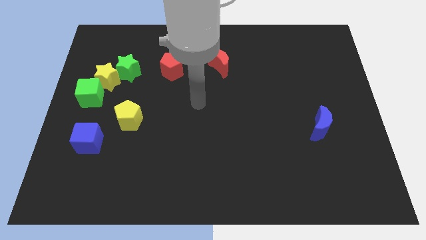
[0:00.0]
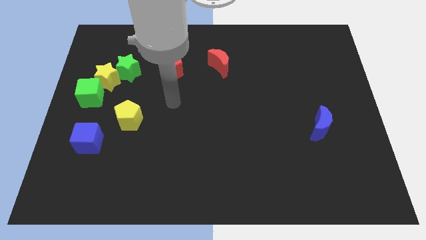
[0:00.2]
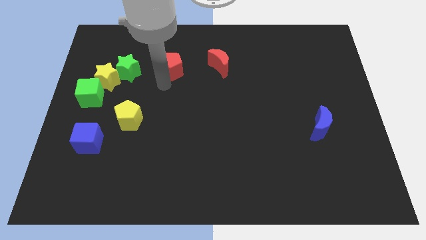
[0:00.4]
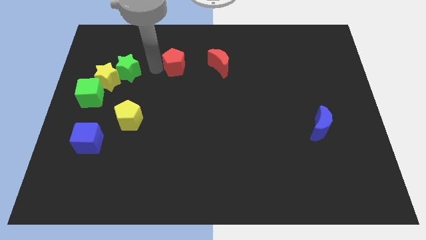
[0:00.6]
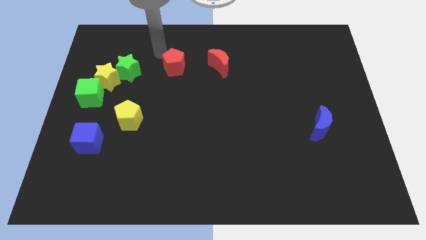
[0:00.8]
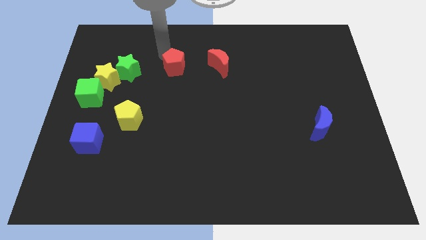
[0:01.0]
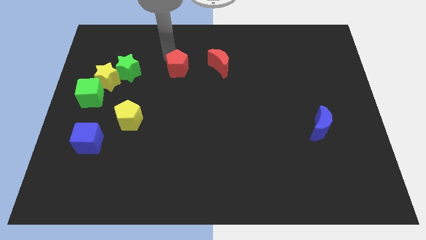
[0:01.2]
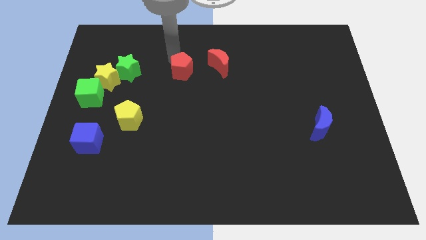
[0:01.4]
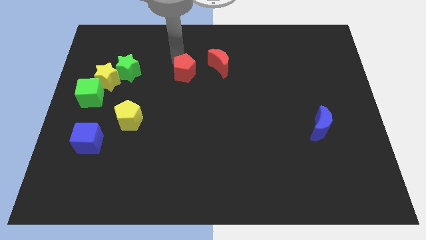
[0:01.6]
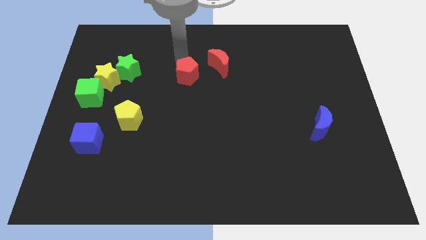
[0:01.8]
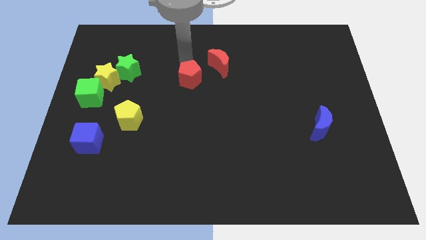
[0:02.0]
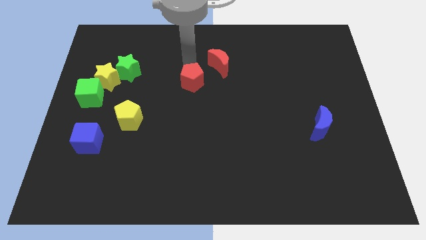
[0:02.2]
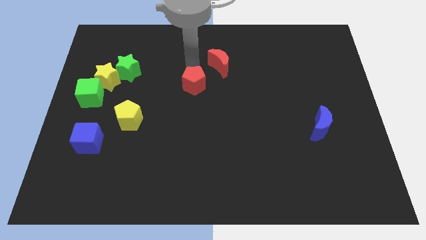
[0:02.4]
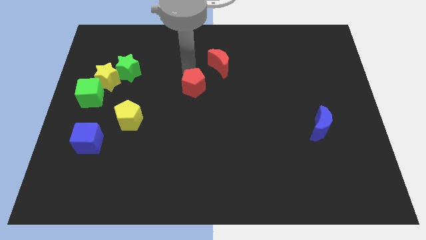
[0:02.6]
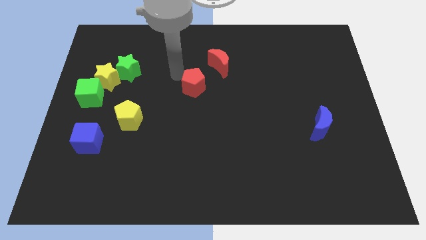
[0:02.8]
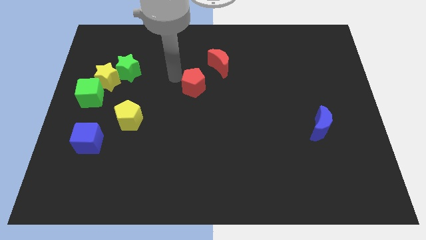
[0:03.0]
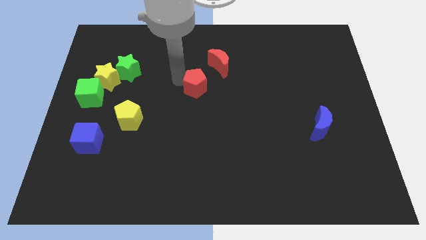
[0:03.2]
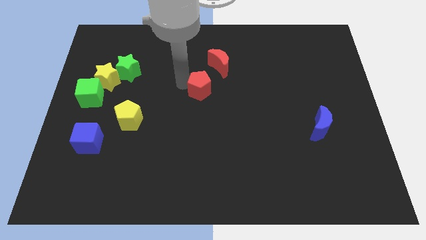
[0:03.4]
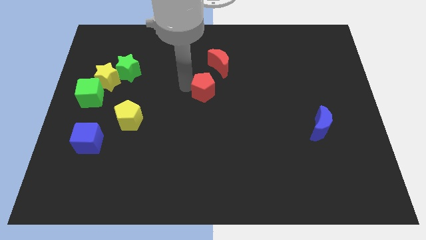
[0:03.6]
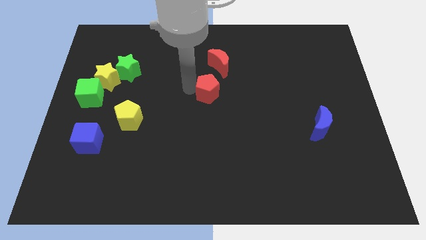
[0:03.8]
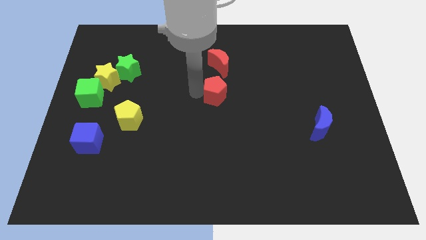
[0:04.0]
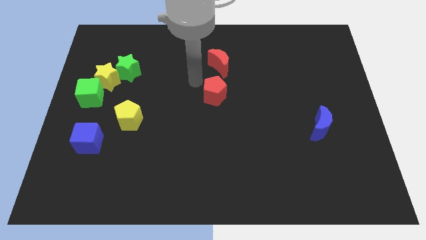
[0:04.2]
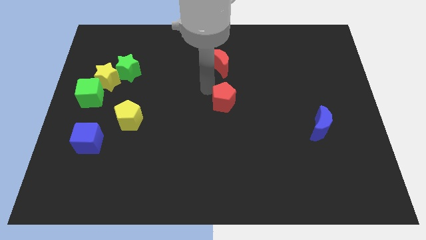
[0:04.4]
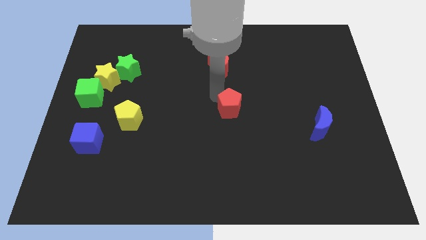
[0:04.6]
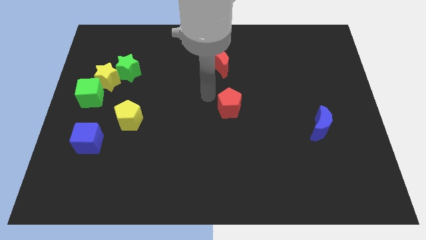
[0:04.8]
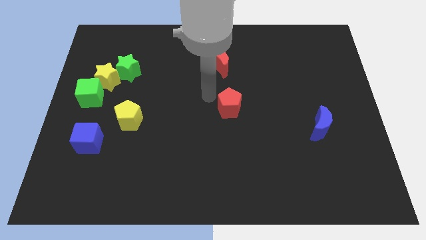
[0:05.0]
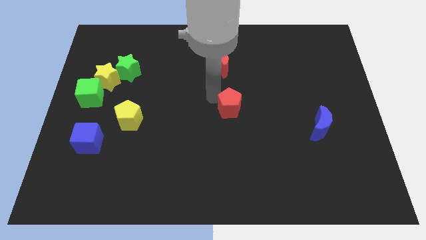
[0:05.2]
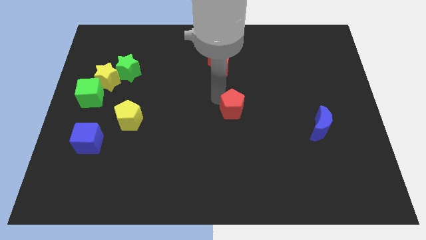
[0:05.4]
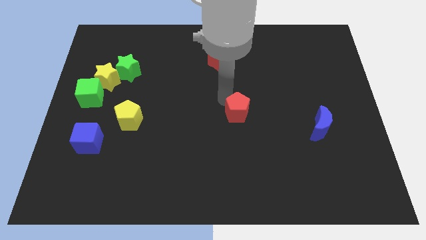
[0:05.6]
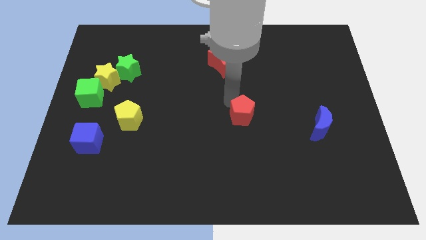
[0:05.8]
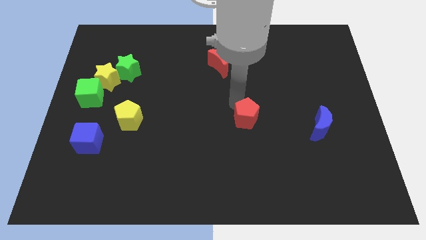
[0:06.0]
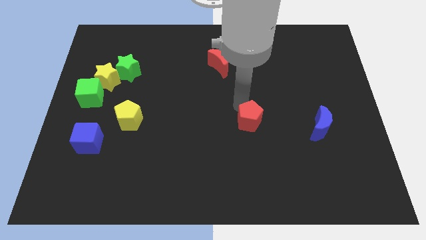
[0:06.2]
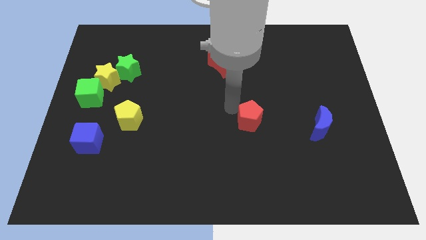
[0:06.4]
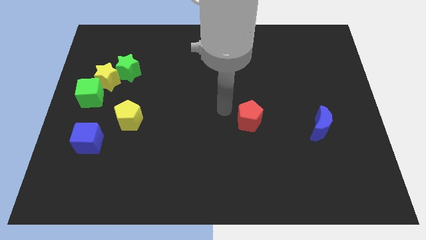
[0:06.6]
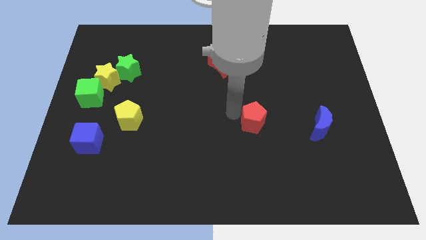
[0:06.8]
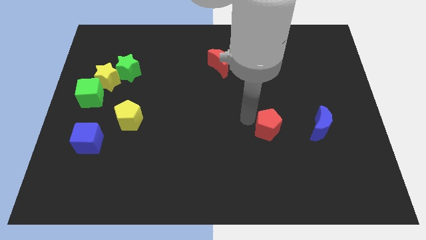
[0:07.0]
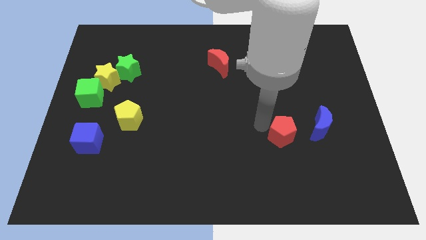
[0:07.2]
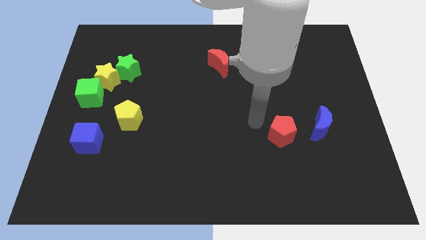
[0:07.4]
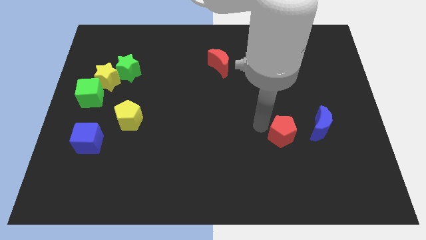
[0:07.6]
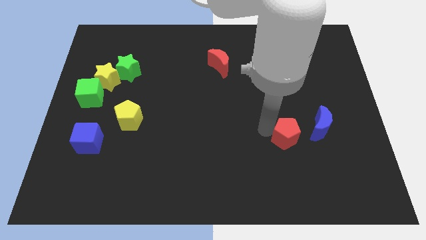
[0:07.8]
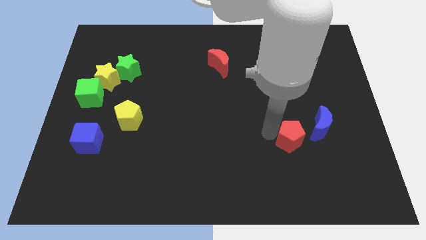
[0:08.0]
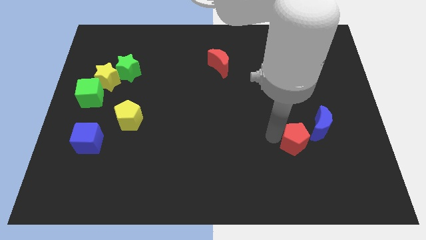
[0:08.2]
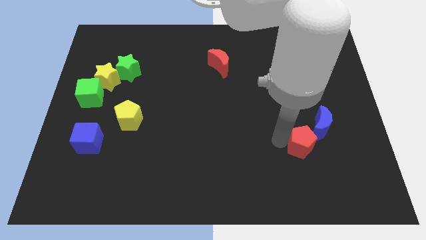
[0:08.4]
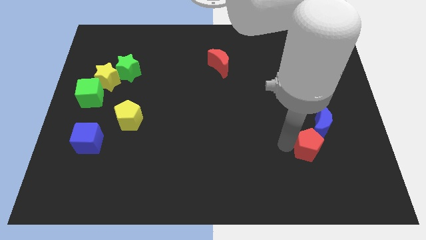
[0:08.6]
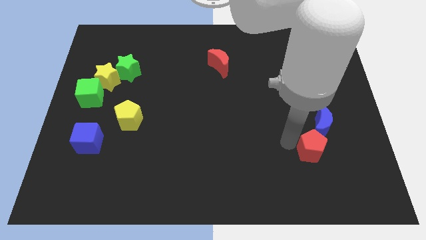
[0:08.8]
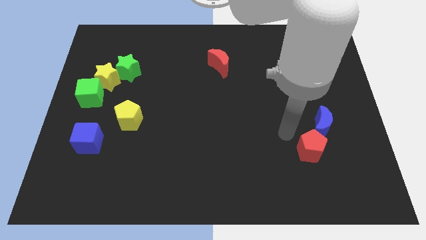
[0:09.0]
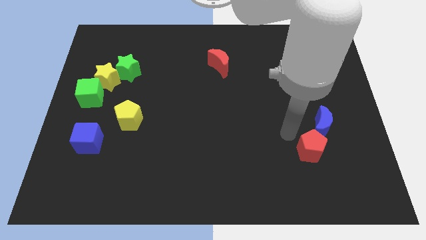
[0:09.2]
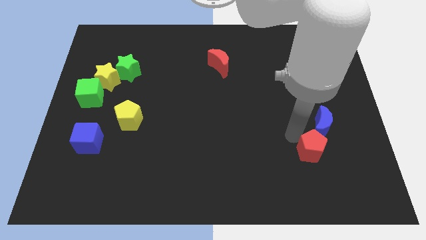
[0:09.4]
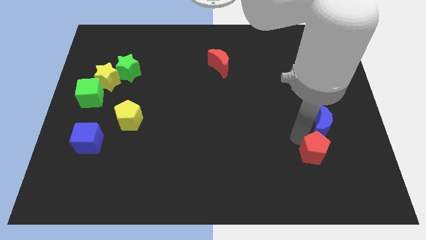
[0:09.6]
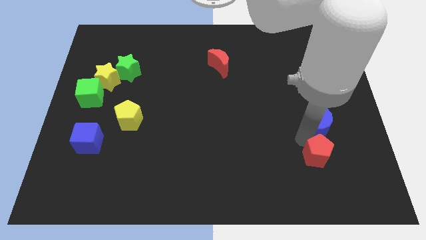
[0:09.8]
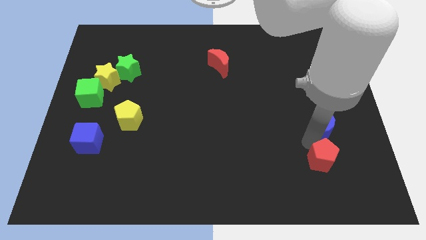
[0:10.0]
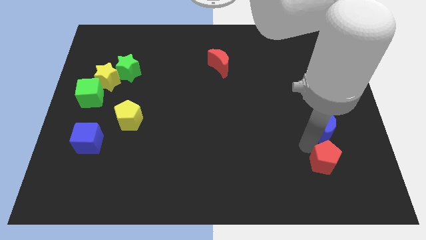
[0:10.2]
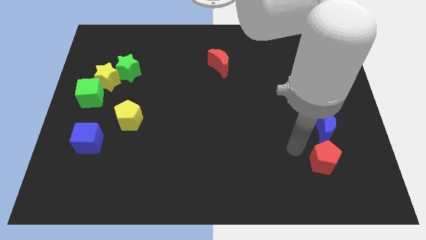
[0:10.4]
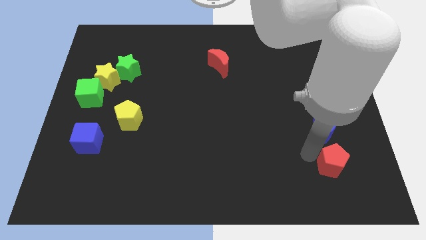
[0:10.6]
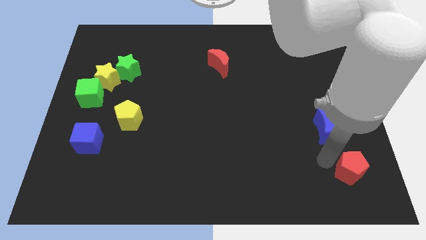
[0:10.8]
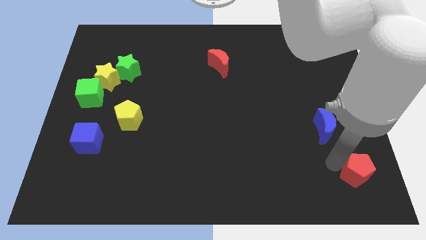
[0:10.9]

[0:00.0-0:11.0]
put the red pentagon to the bottom right

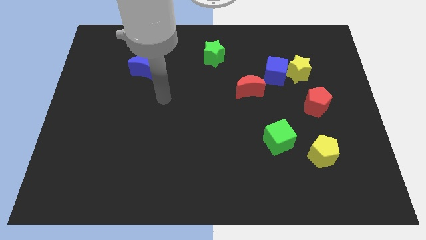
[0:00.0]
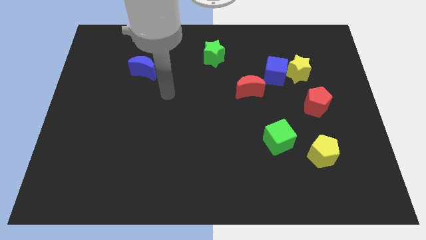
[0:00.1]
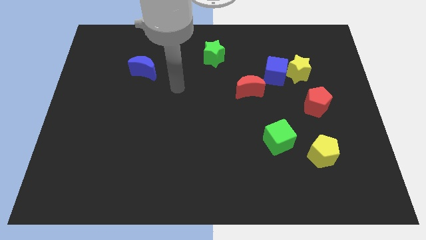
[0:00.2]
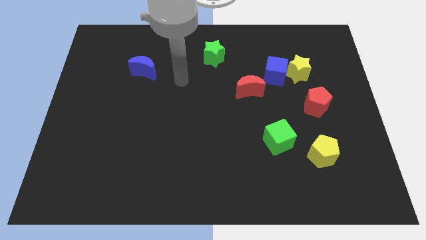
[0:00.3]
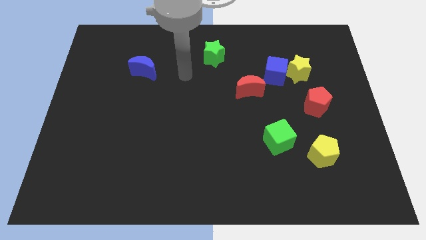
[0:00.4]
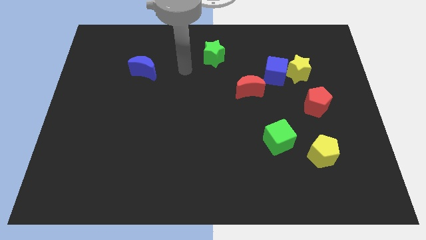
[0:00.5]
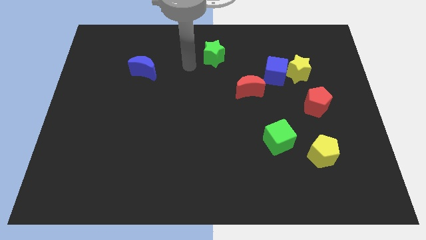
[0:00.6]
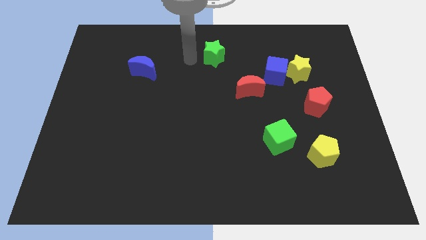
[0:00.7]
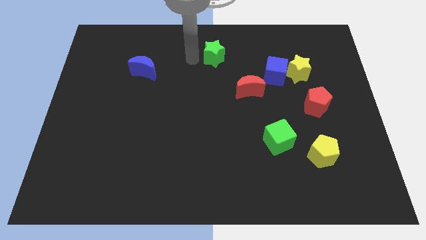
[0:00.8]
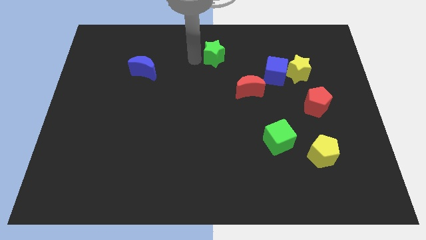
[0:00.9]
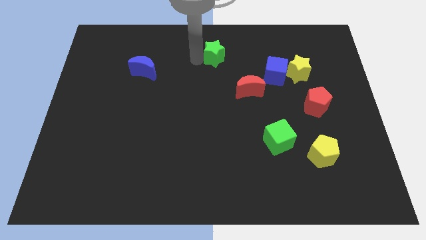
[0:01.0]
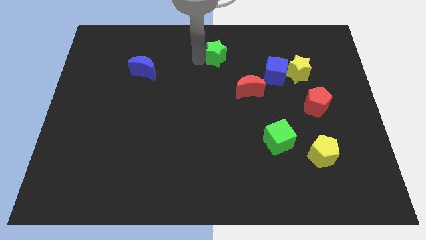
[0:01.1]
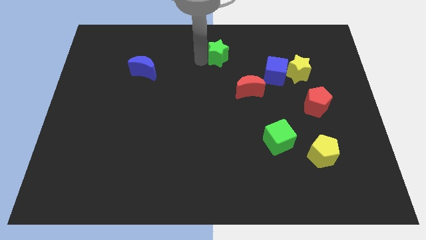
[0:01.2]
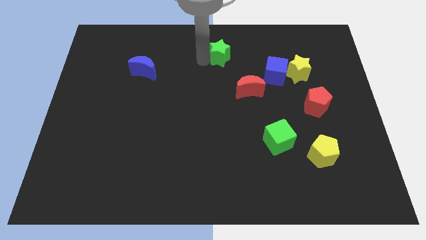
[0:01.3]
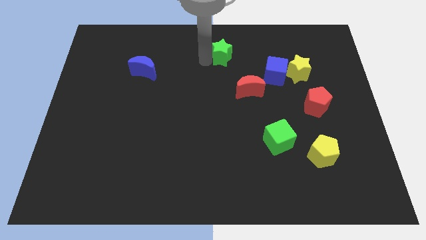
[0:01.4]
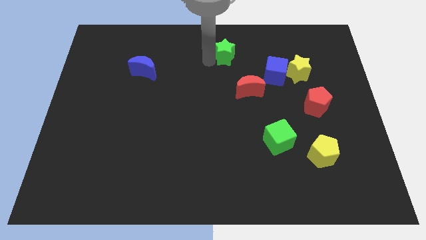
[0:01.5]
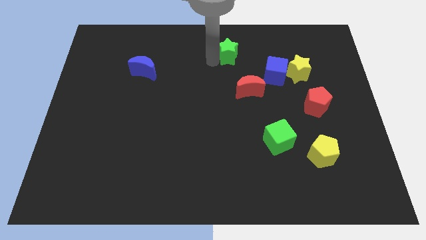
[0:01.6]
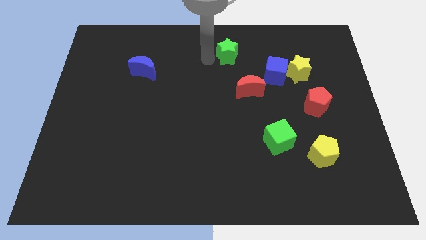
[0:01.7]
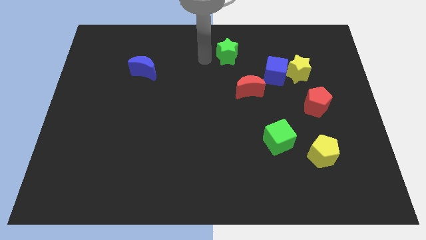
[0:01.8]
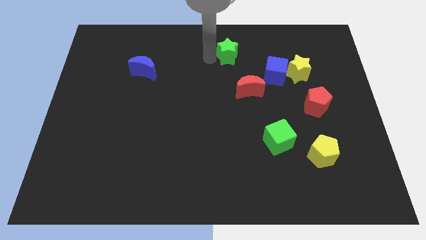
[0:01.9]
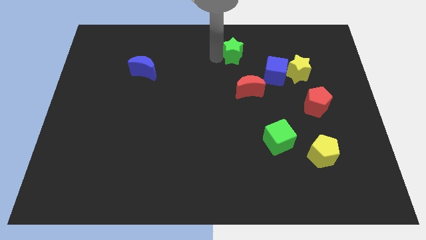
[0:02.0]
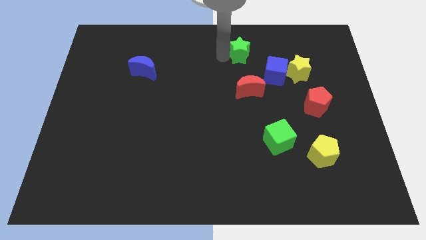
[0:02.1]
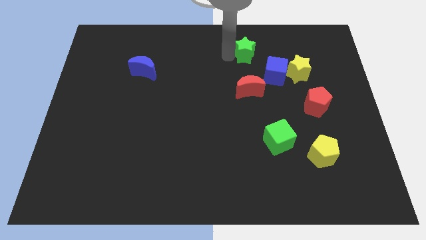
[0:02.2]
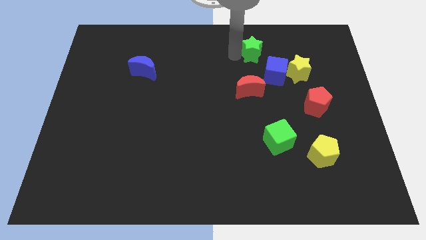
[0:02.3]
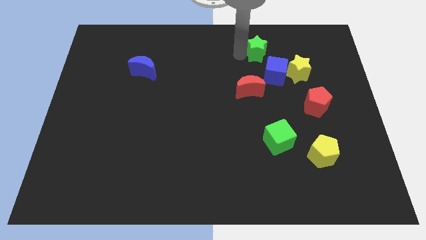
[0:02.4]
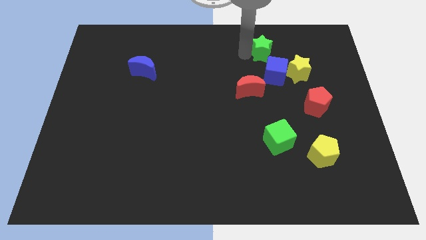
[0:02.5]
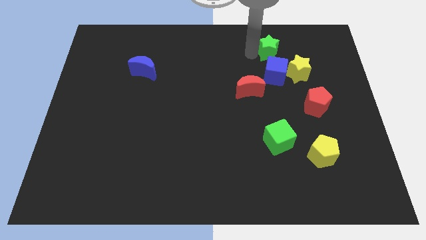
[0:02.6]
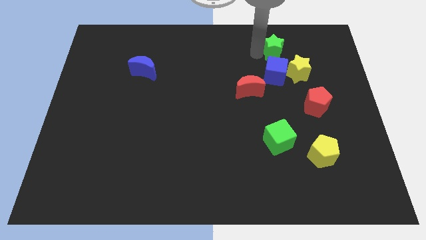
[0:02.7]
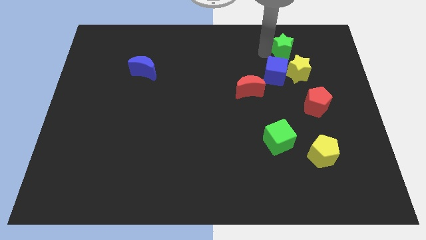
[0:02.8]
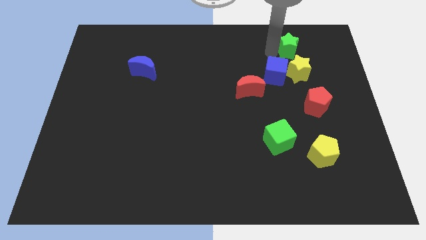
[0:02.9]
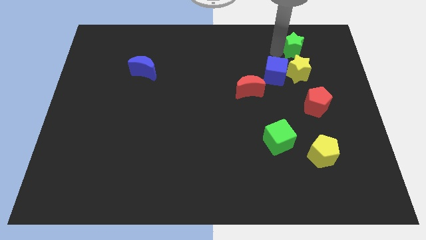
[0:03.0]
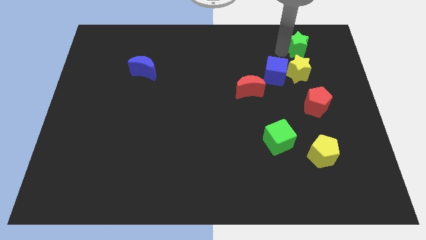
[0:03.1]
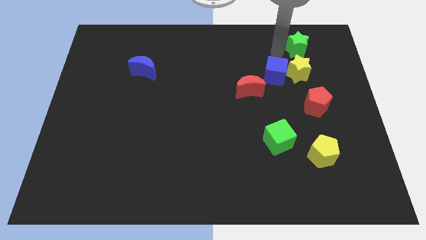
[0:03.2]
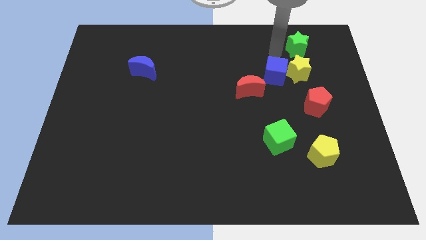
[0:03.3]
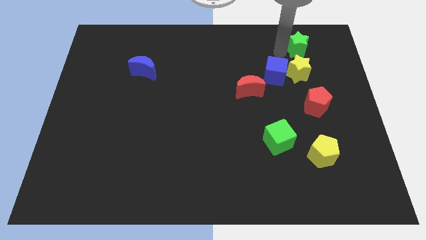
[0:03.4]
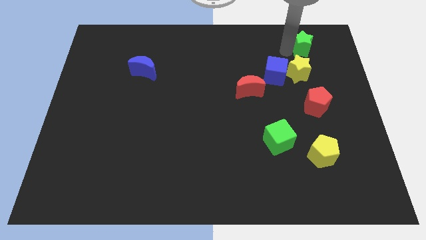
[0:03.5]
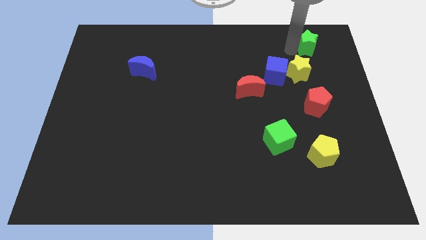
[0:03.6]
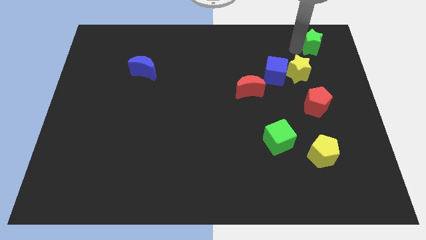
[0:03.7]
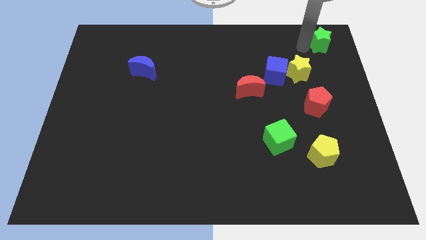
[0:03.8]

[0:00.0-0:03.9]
push the green star to the upper right corner
